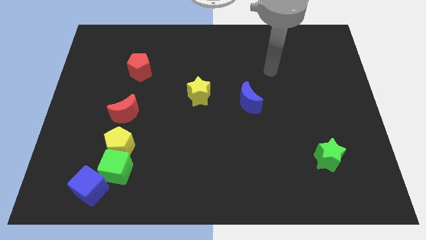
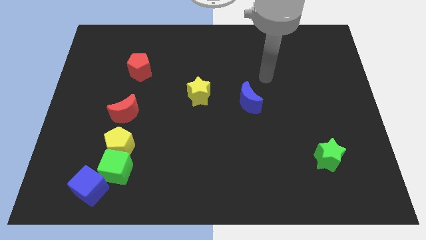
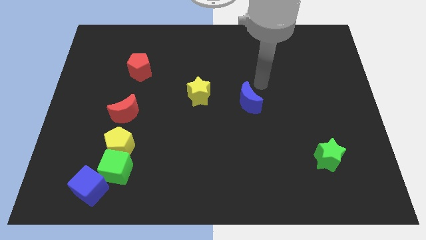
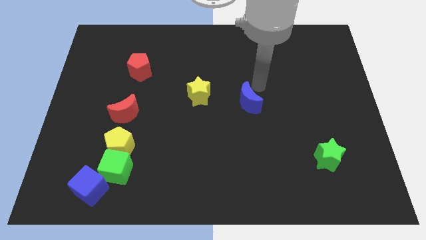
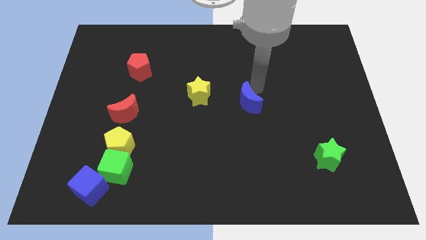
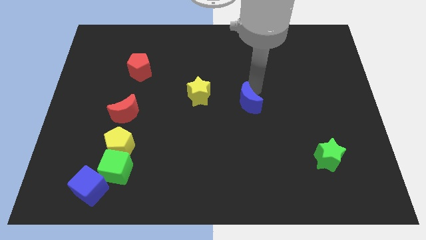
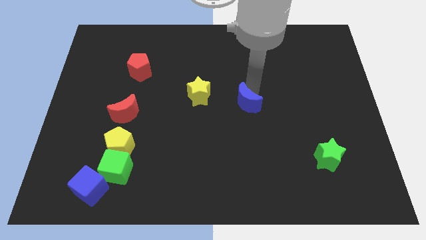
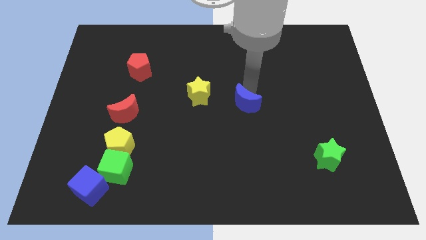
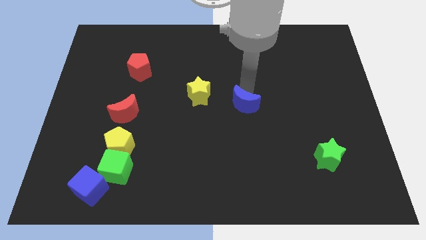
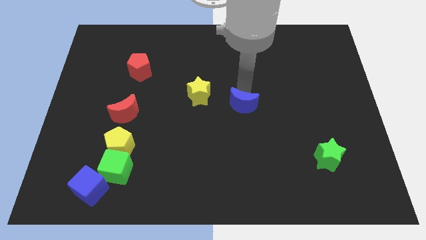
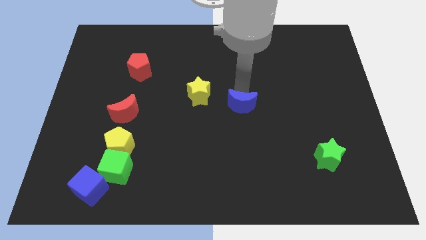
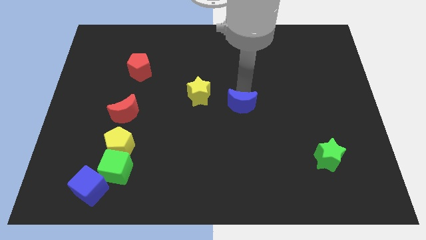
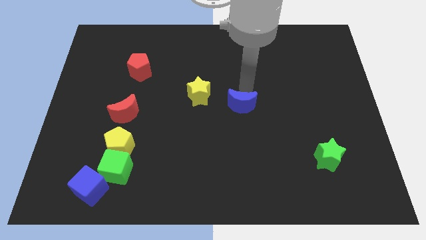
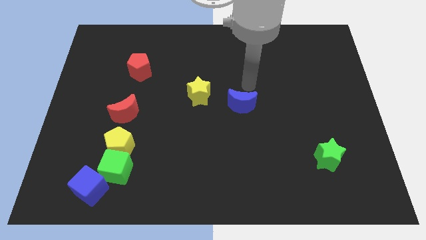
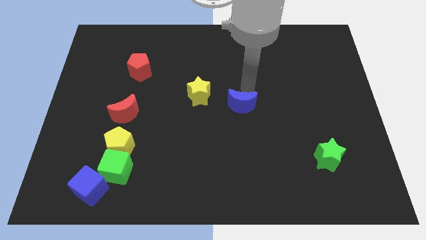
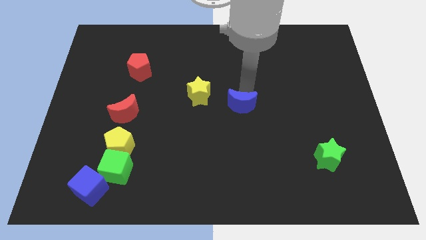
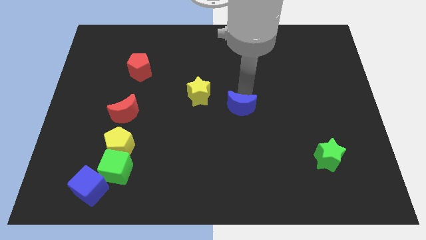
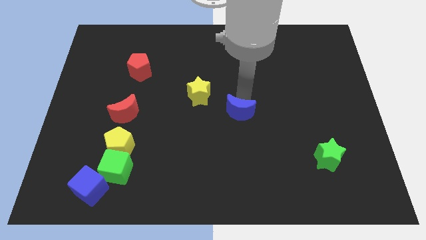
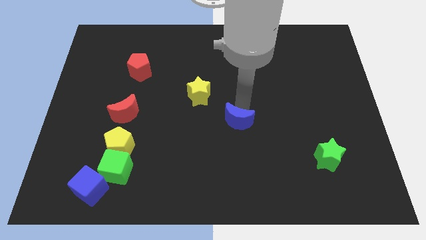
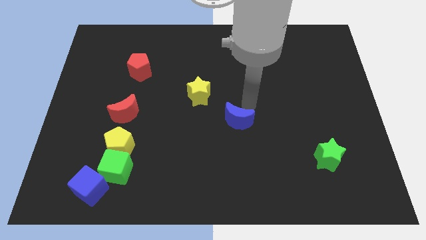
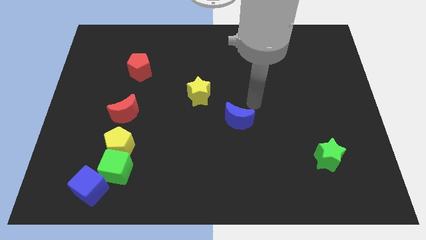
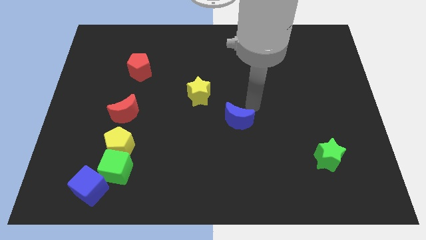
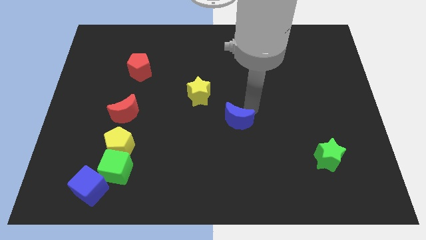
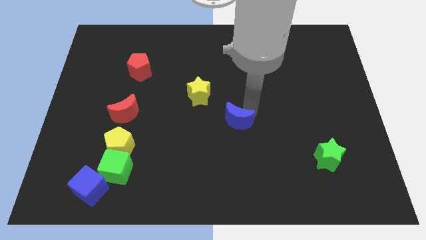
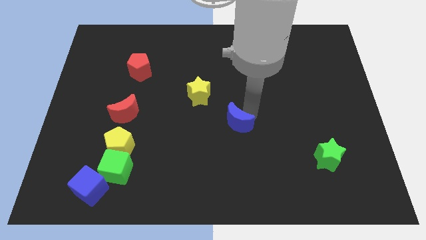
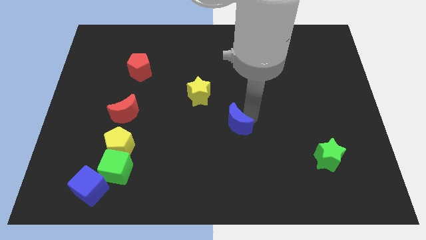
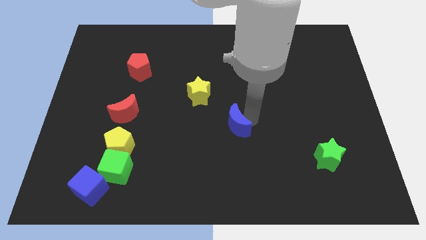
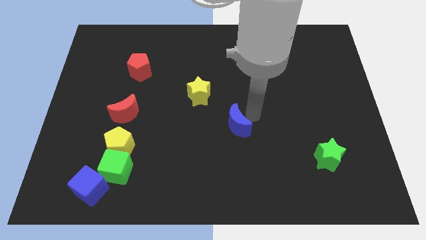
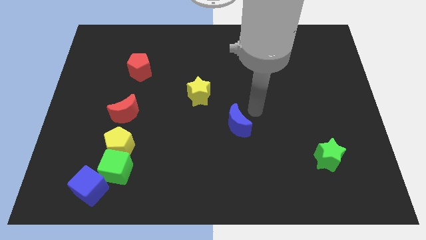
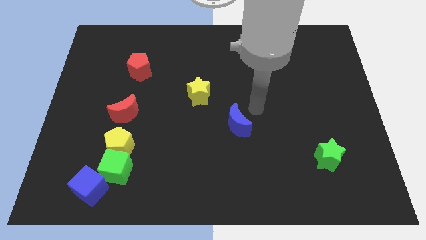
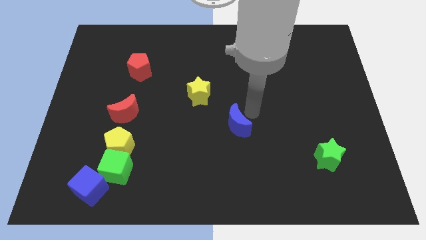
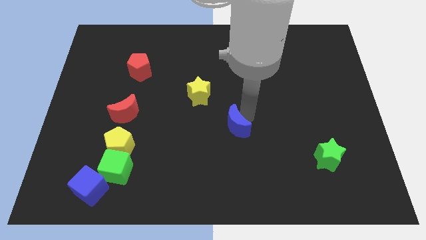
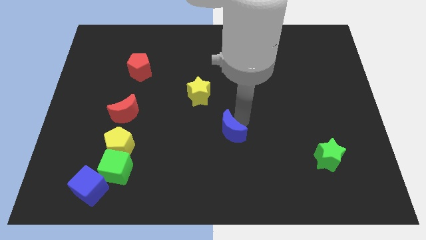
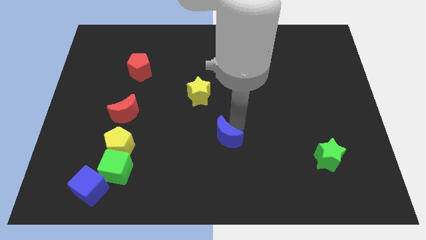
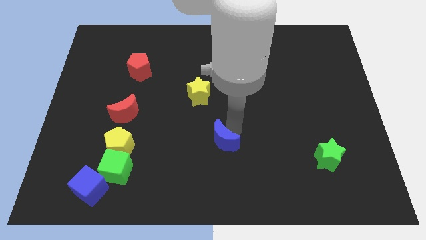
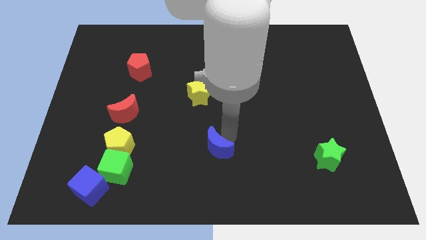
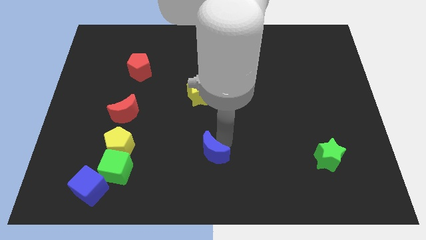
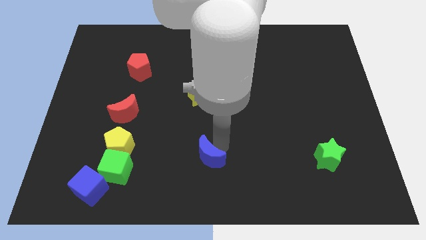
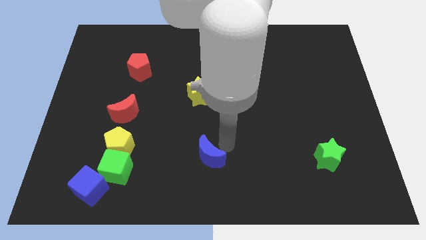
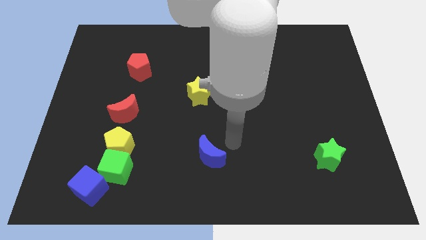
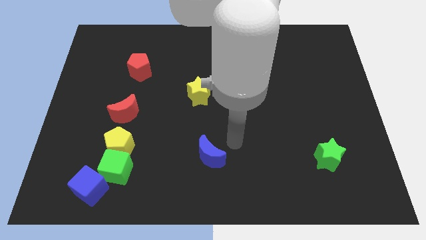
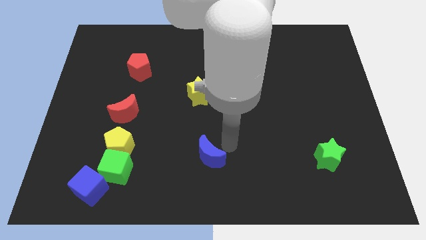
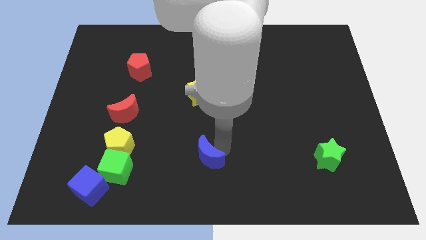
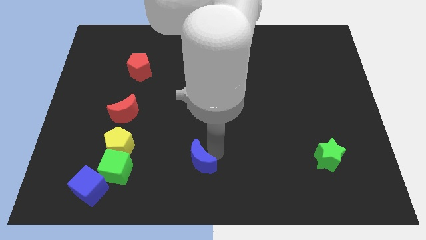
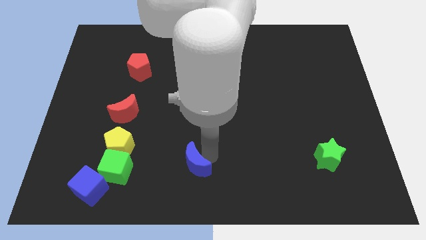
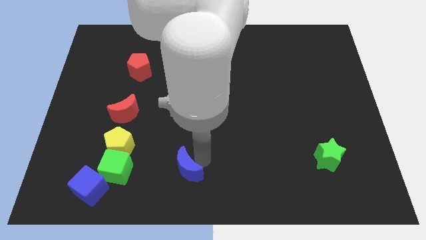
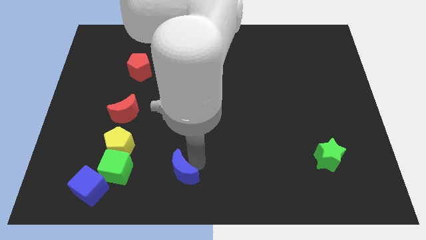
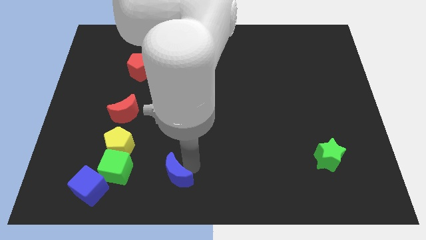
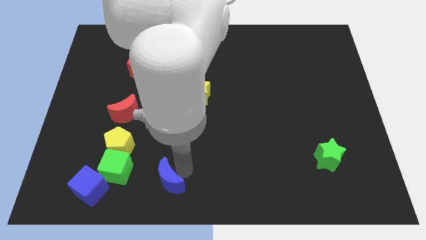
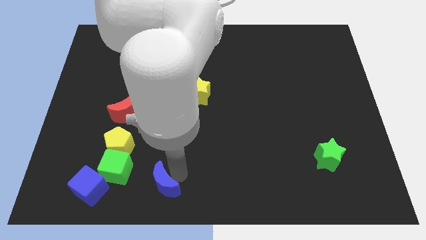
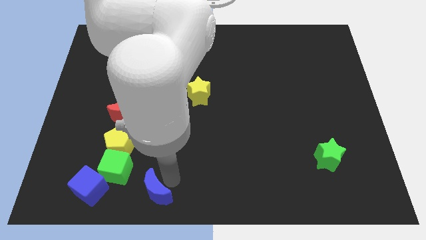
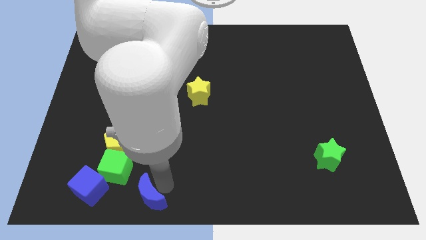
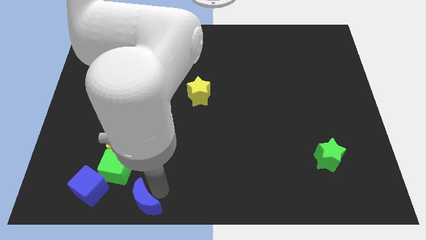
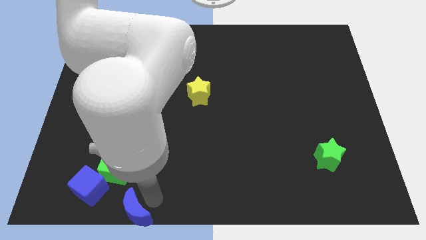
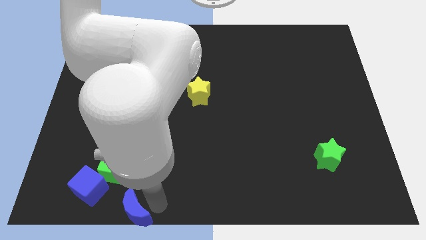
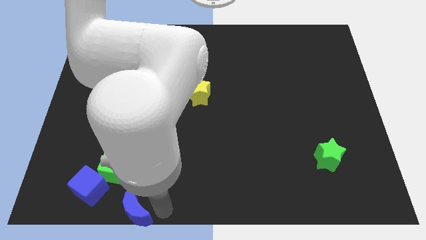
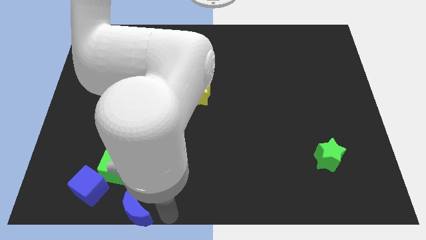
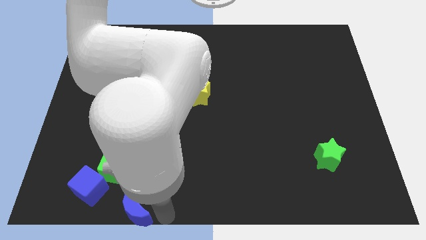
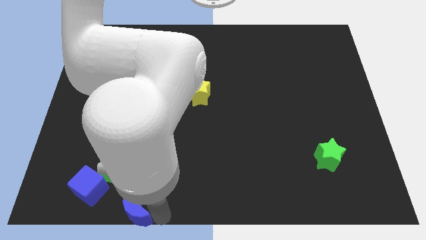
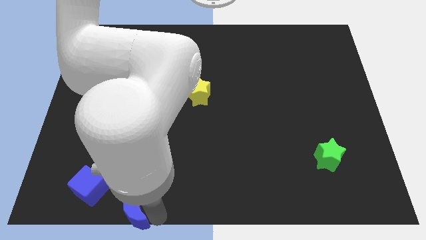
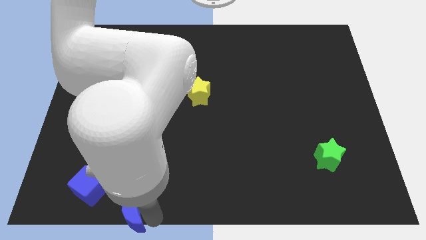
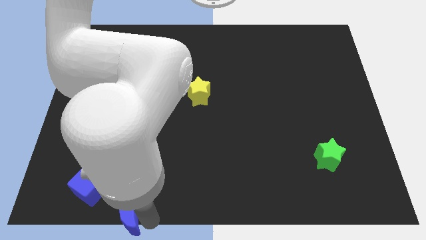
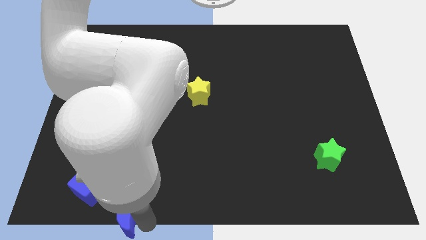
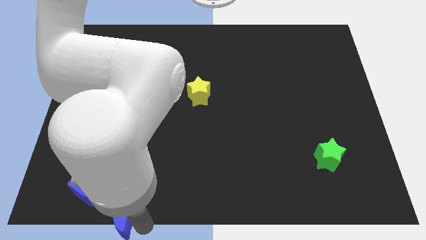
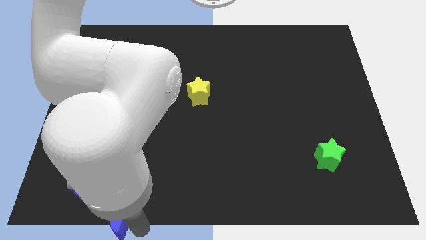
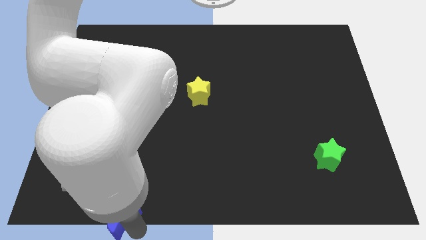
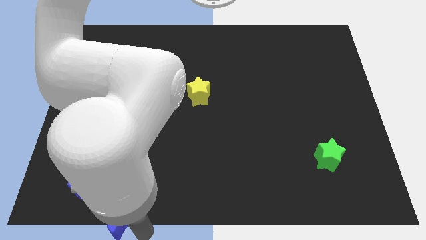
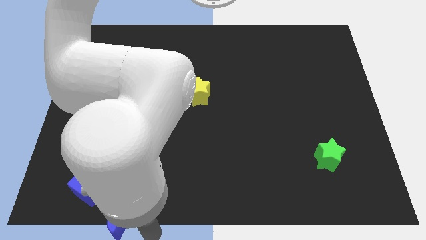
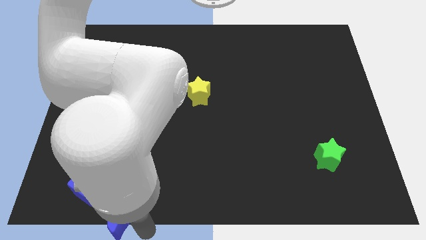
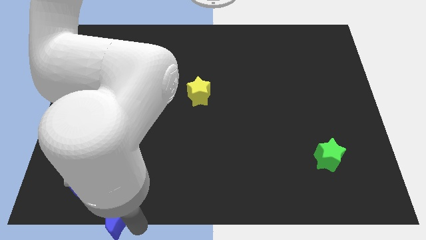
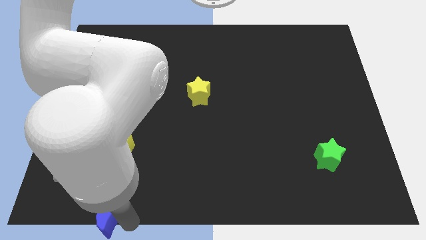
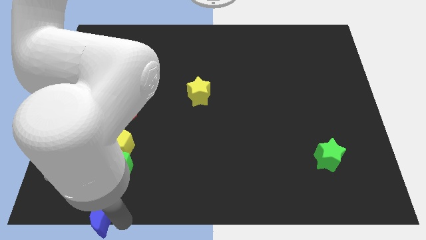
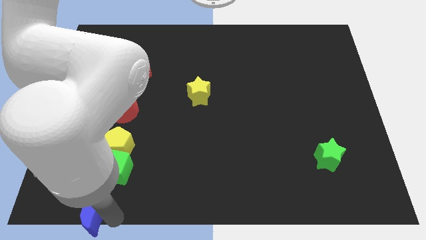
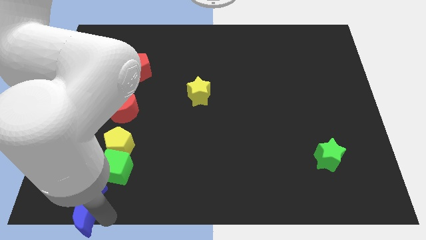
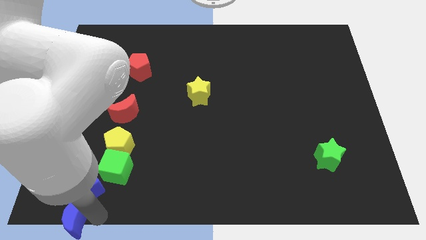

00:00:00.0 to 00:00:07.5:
slide the blue moon to the lower left corner
